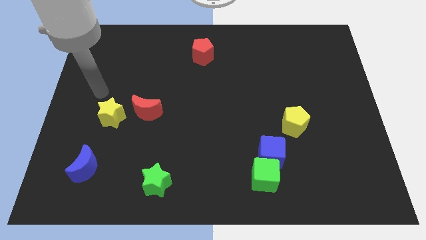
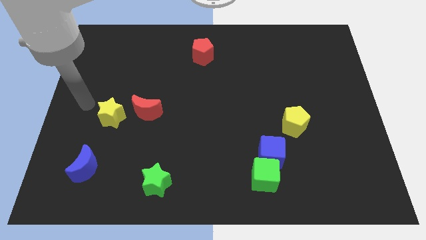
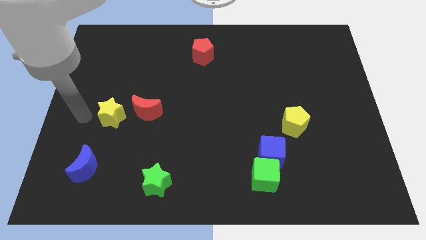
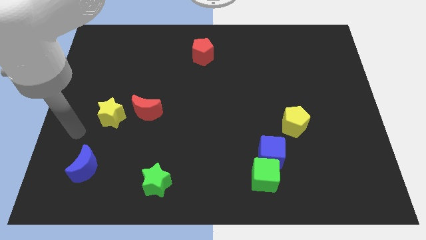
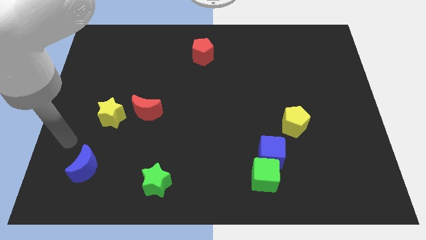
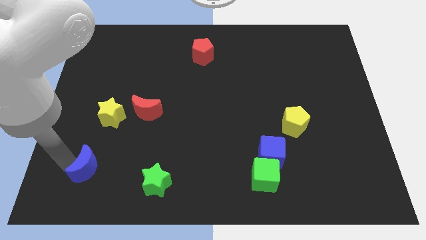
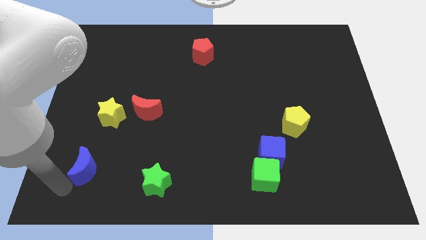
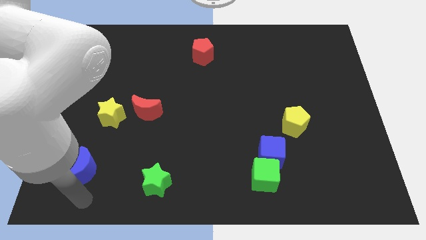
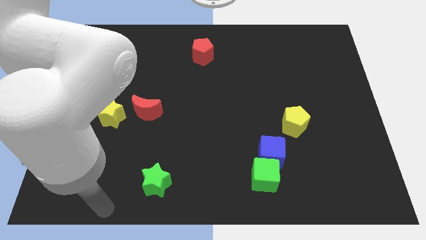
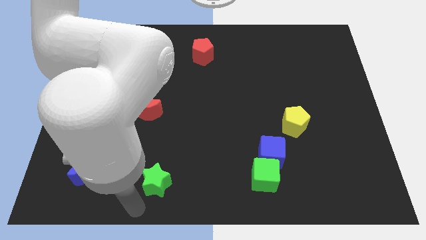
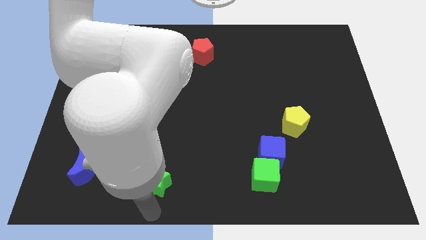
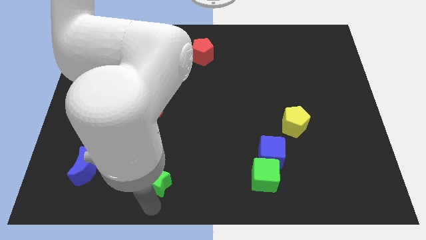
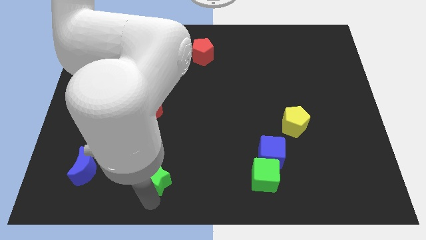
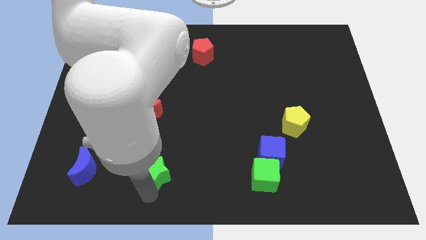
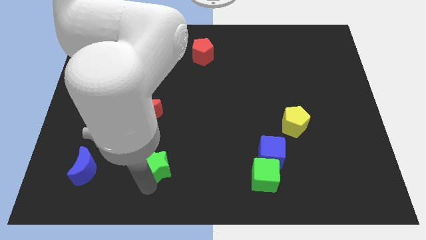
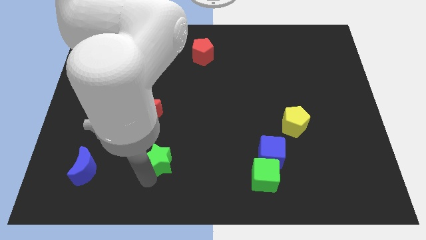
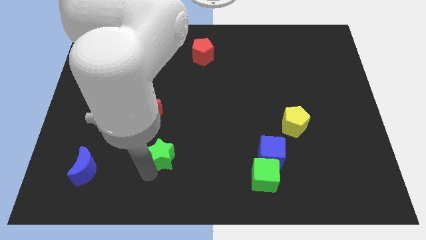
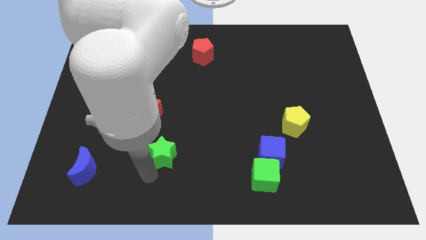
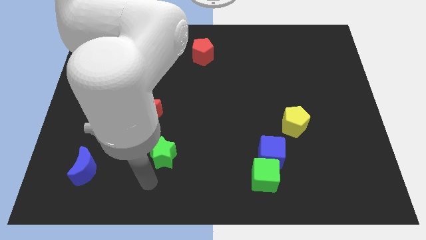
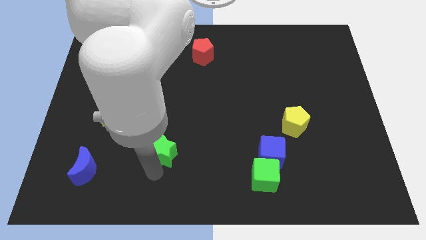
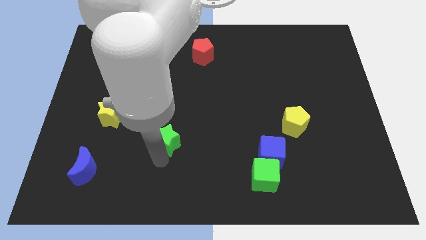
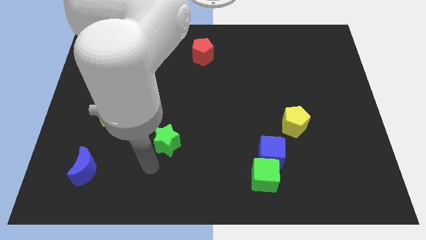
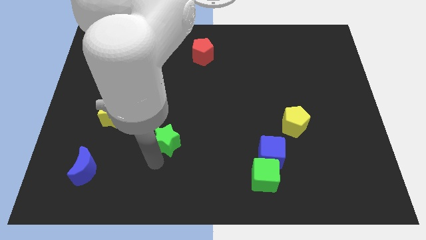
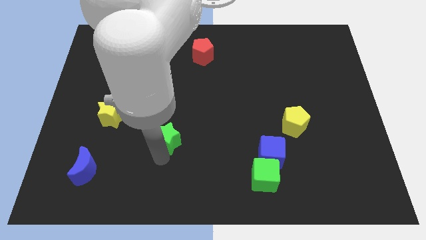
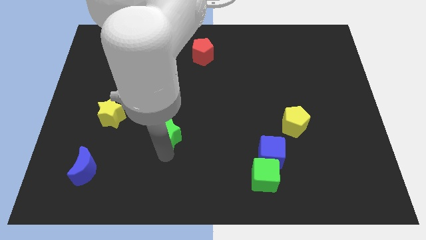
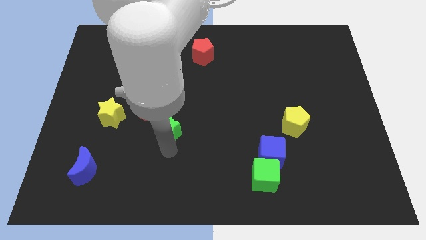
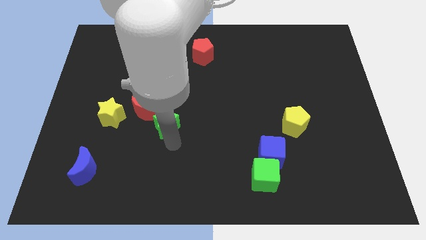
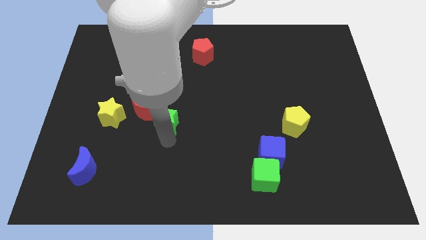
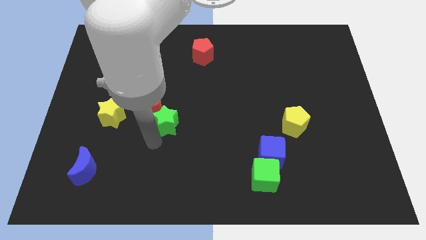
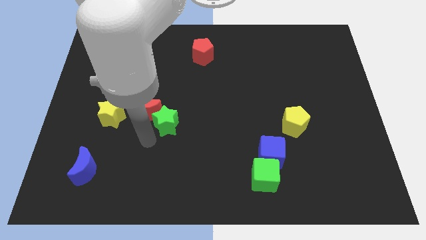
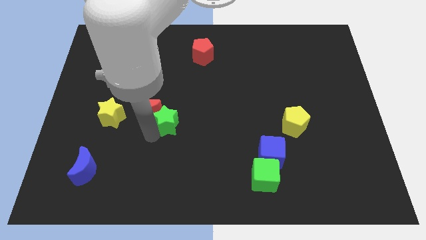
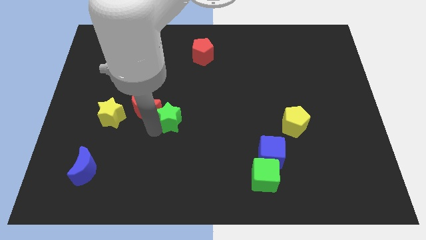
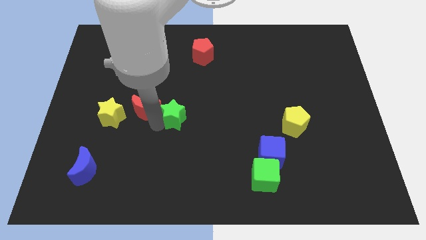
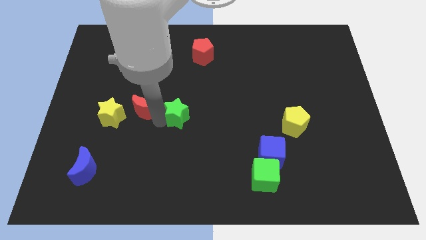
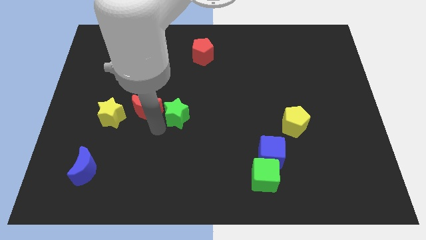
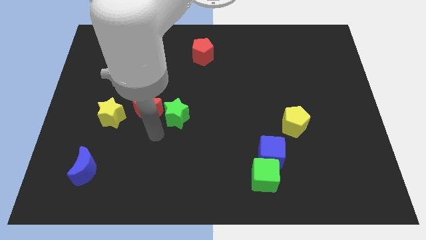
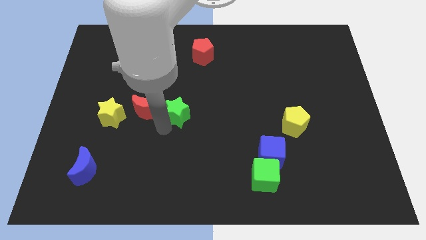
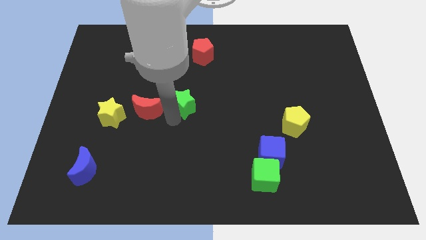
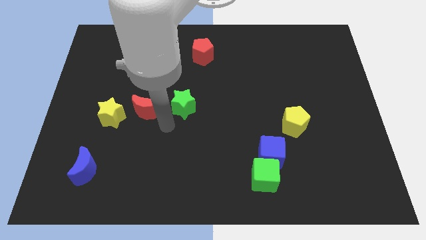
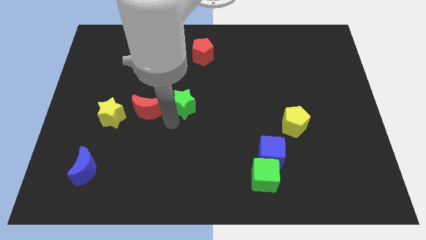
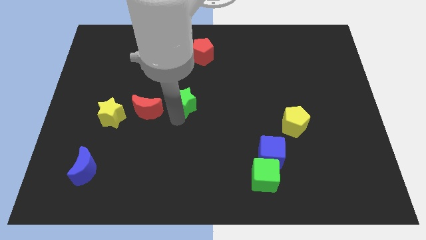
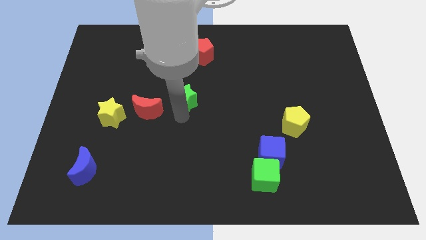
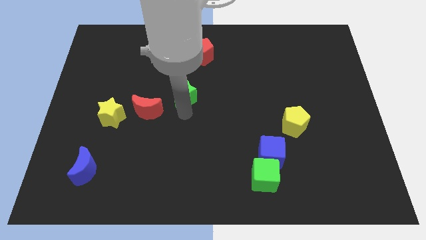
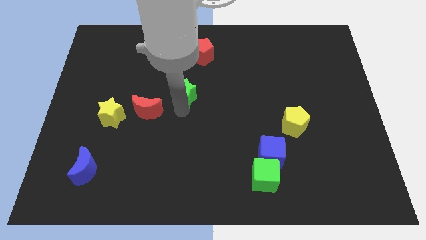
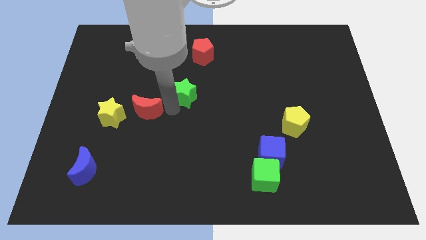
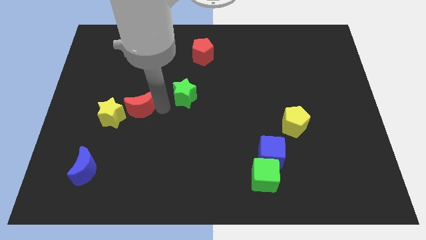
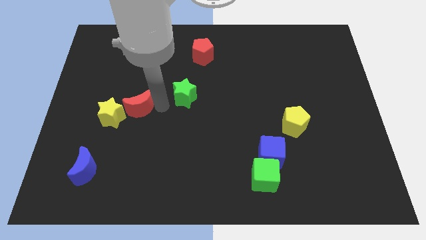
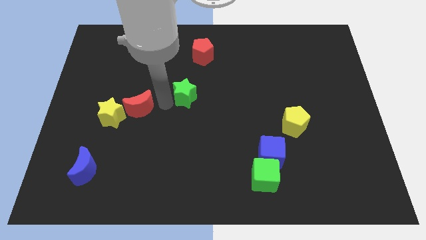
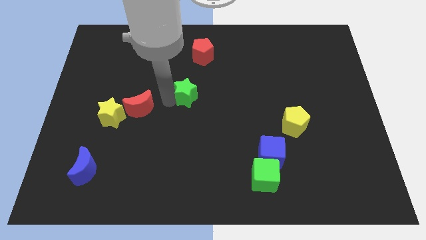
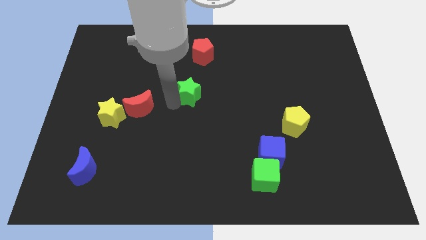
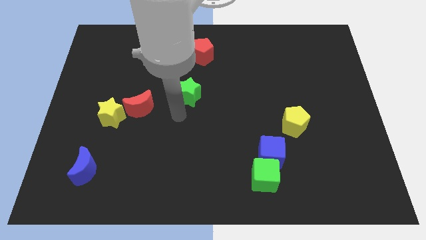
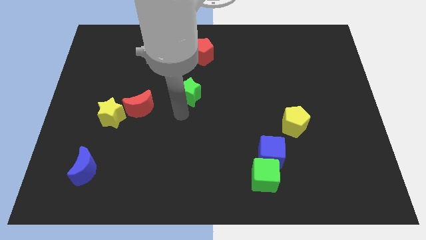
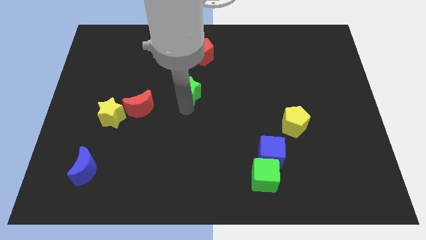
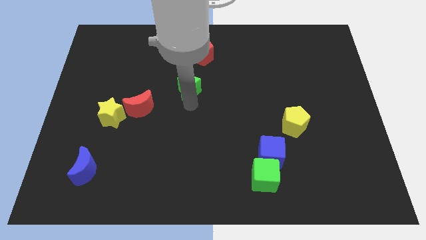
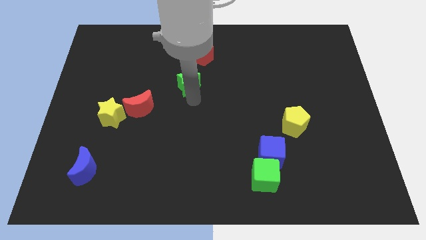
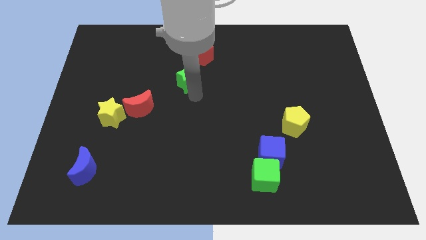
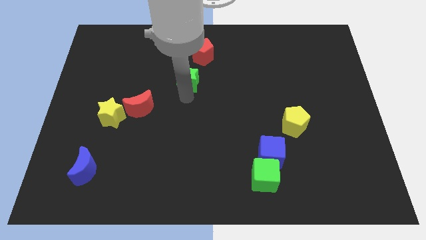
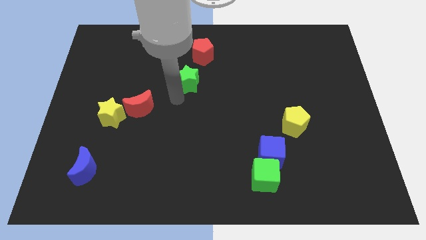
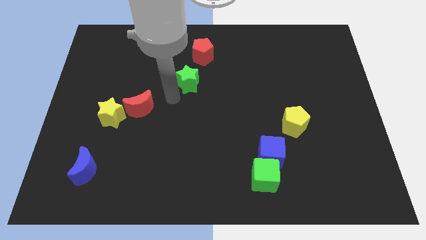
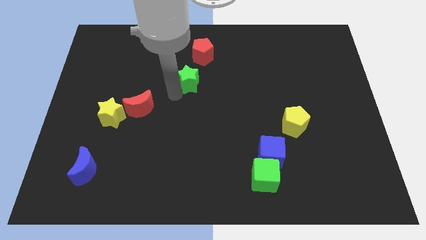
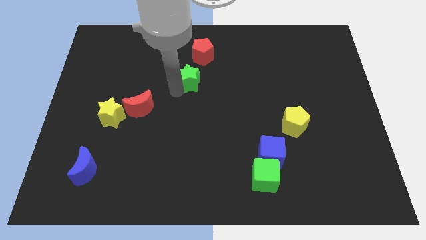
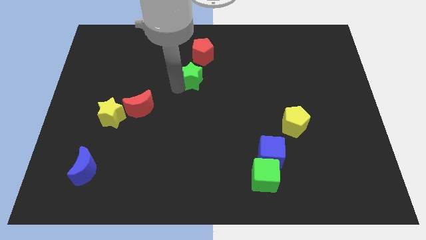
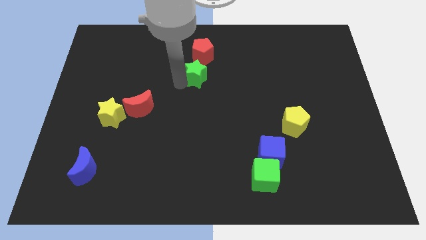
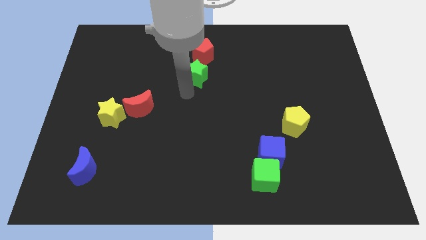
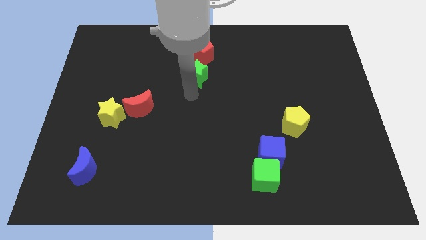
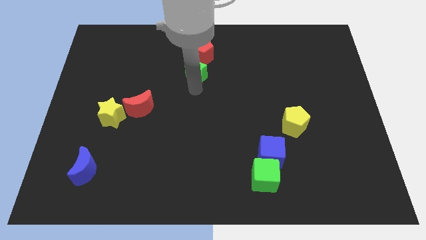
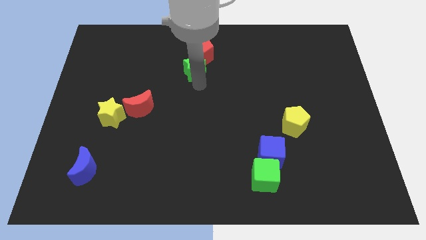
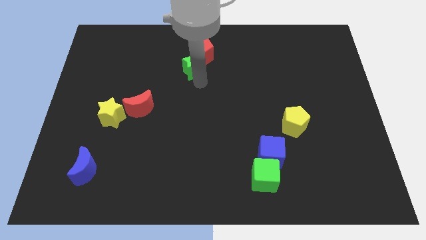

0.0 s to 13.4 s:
slide the green star to the red pentagon
